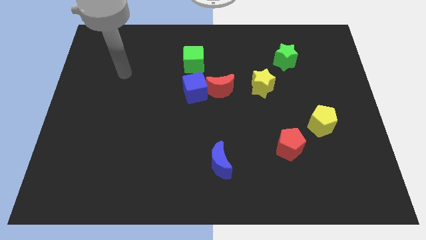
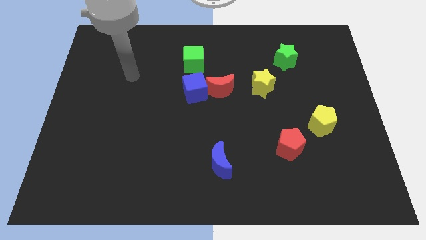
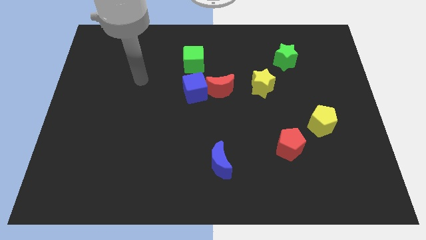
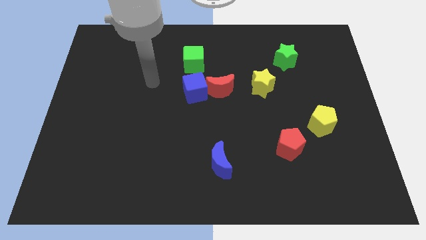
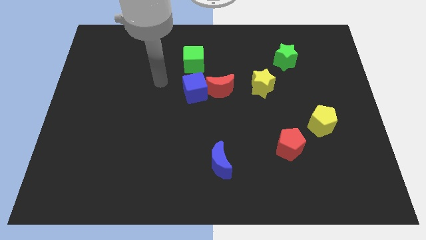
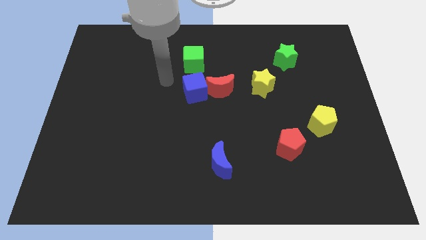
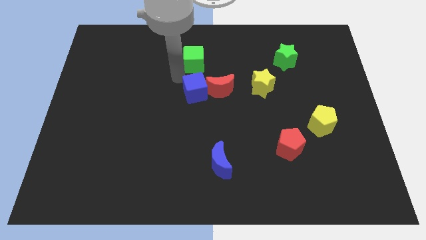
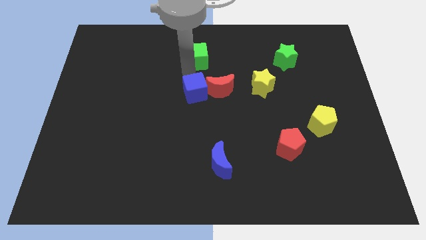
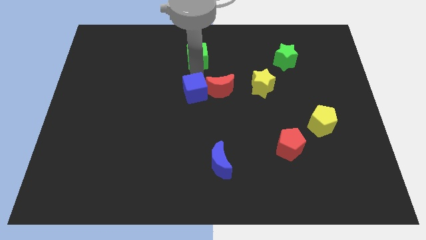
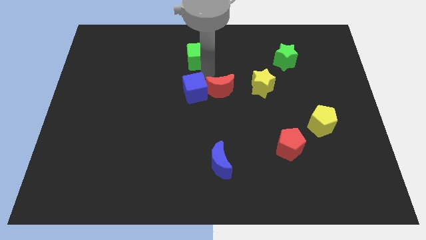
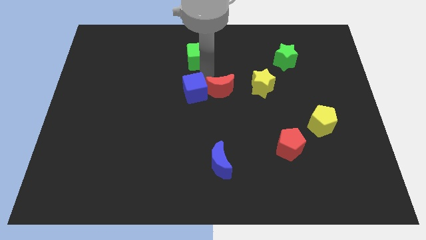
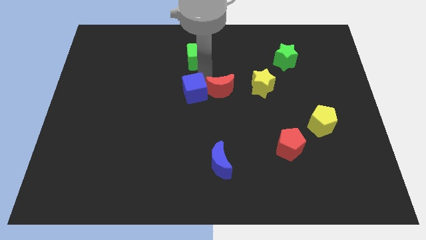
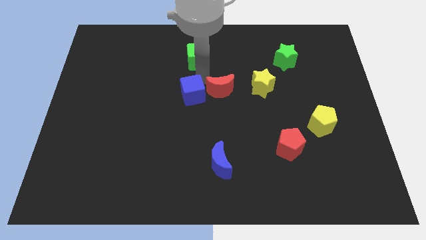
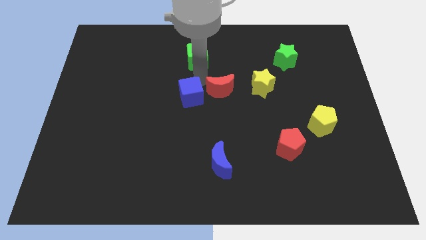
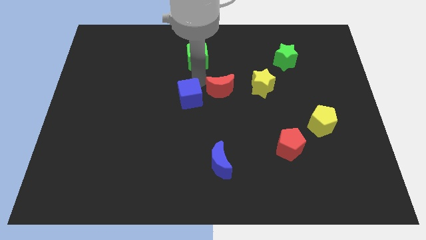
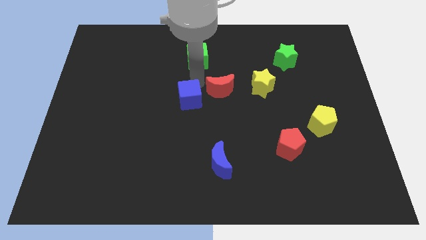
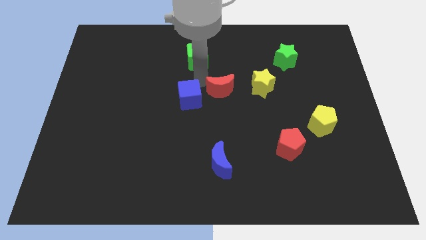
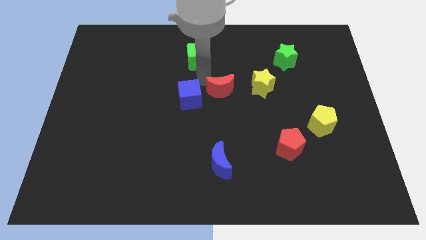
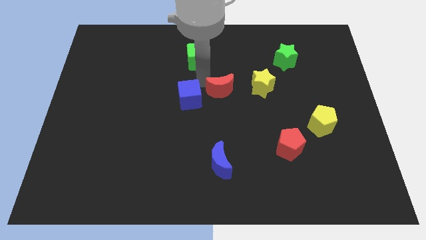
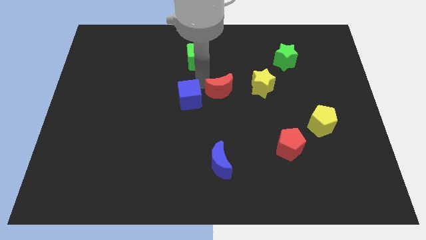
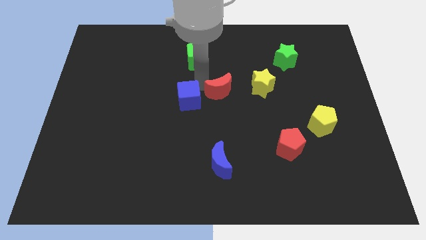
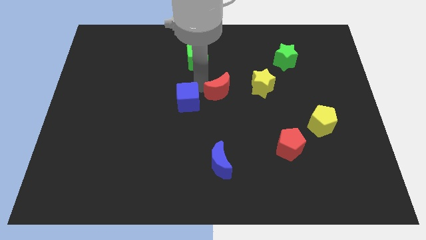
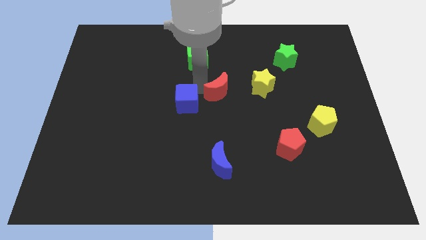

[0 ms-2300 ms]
move the blue cube away from the red moon and green cube

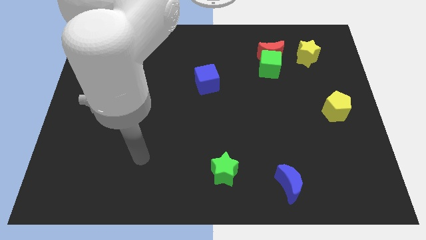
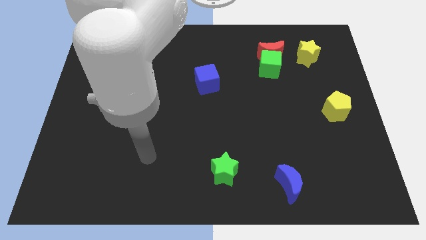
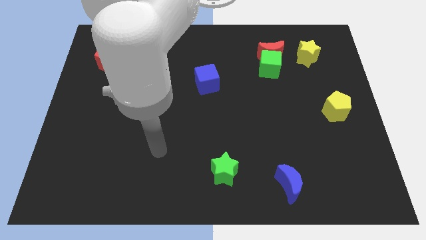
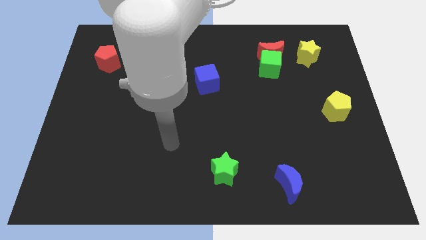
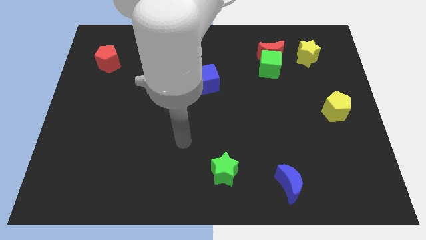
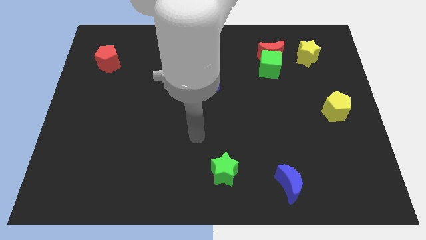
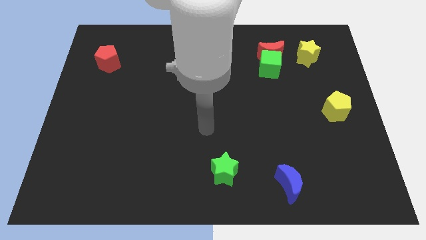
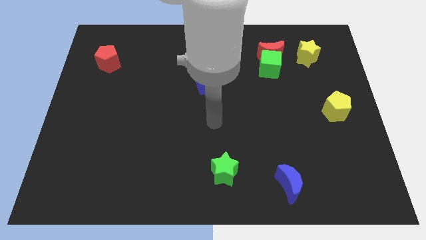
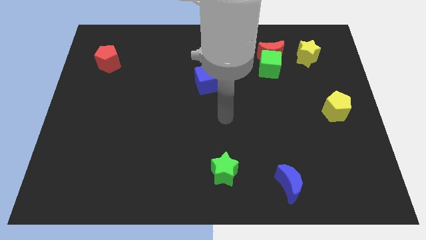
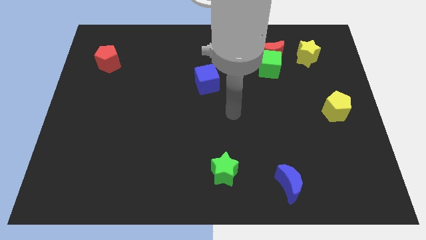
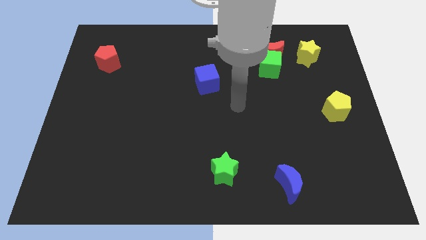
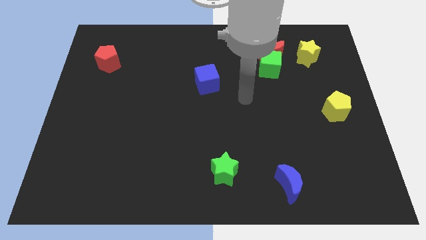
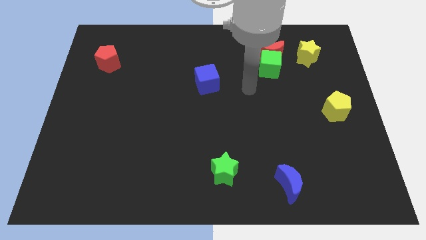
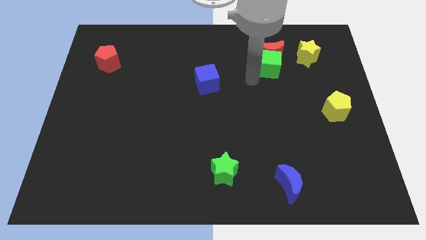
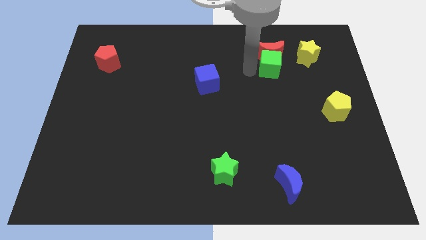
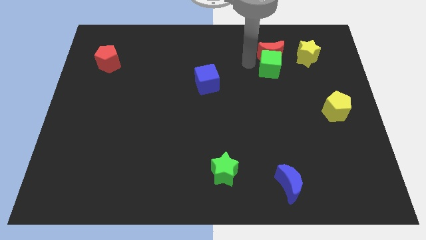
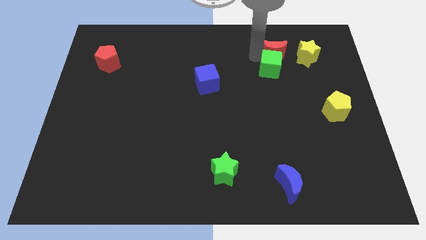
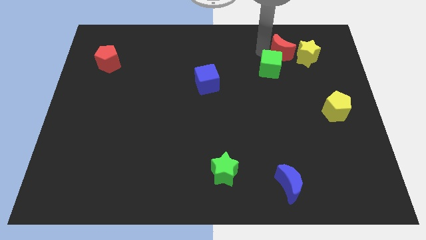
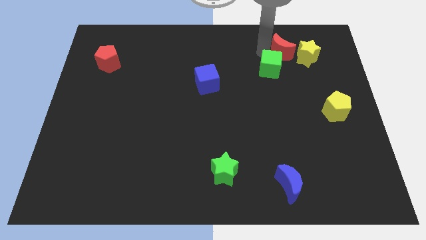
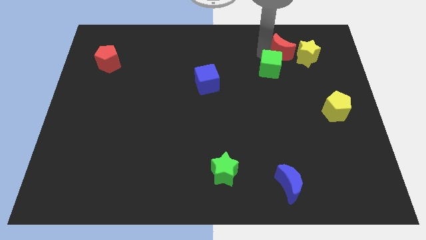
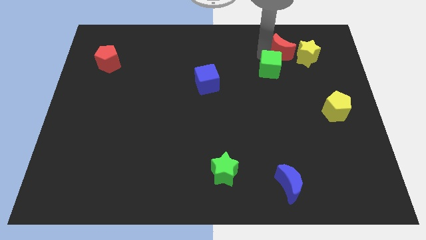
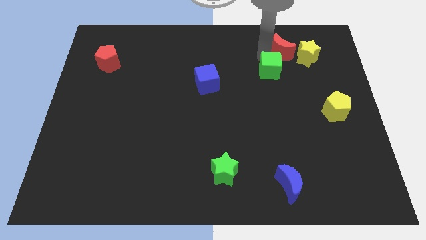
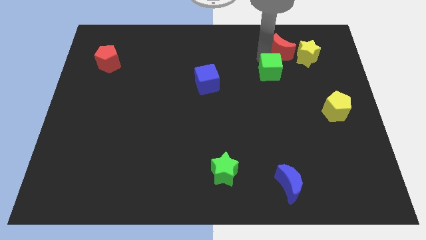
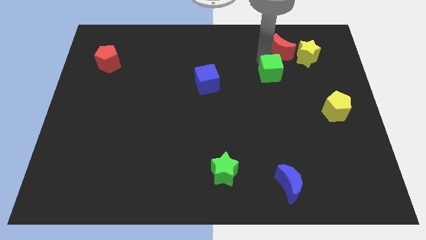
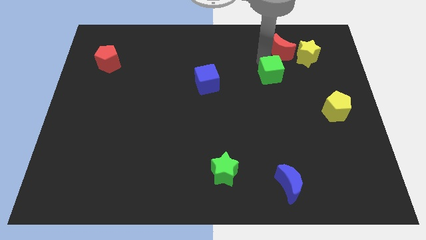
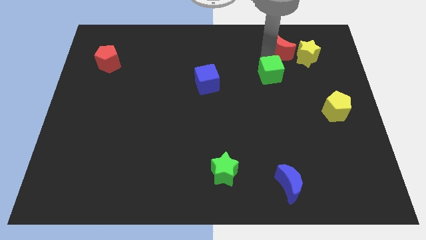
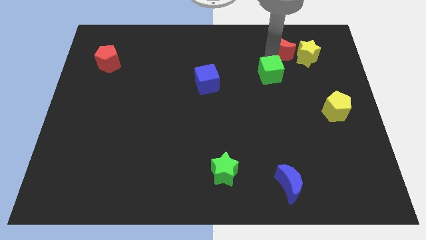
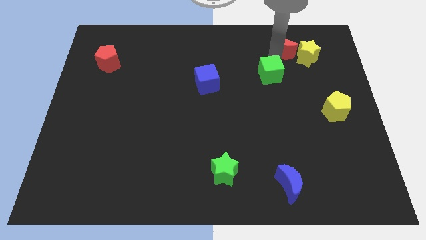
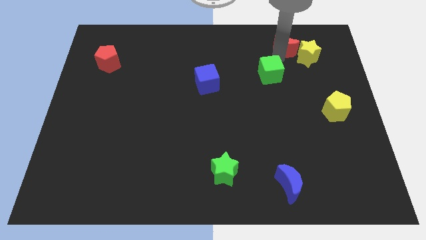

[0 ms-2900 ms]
move the green cube away from the red moon

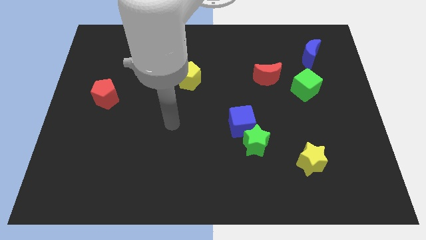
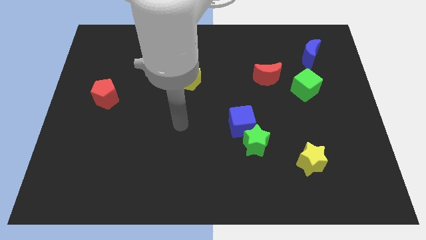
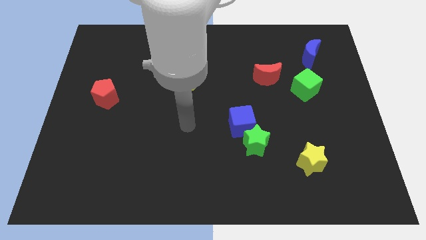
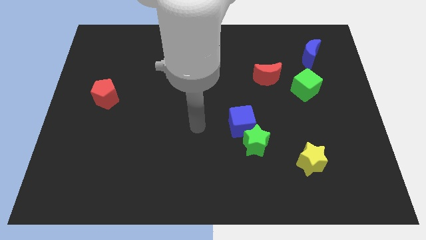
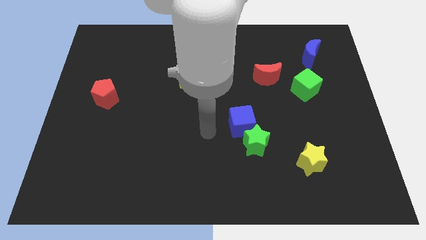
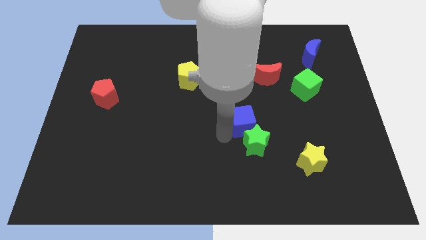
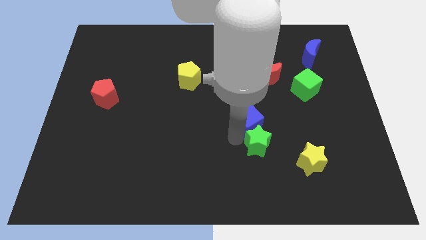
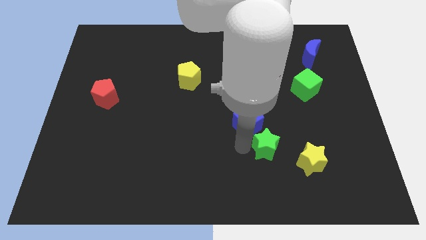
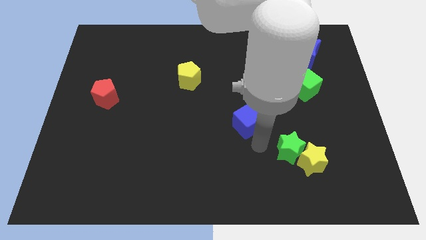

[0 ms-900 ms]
separate the blue cube from the green star

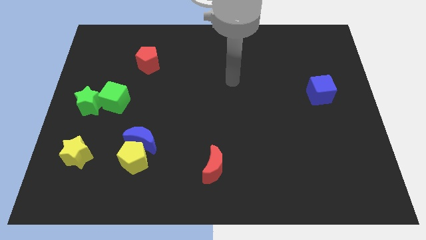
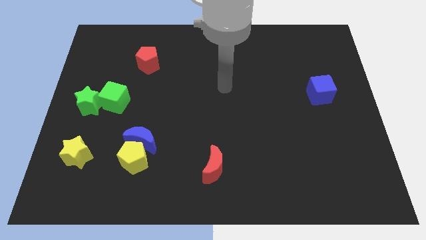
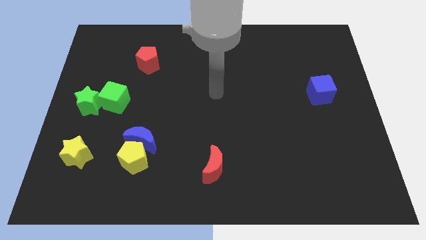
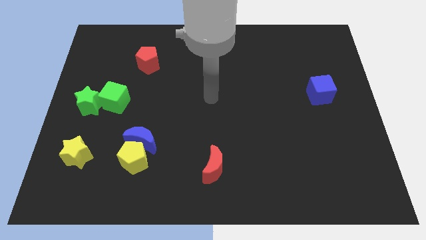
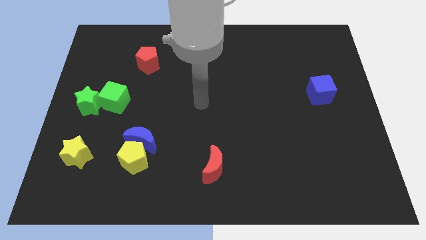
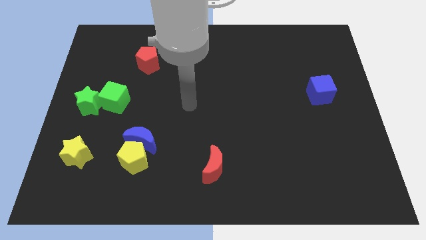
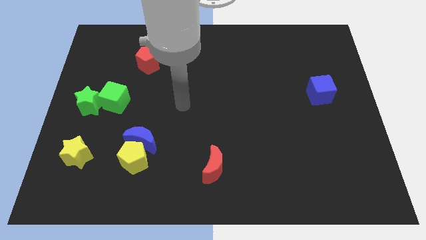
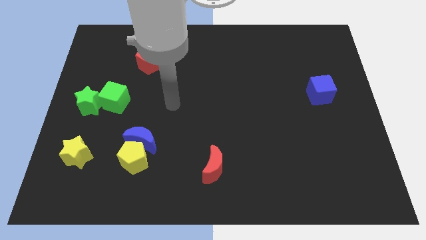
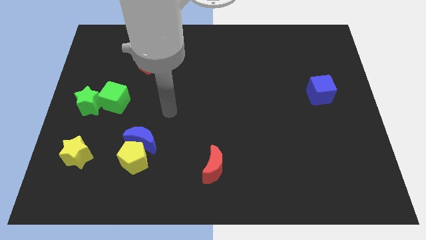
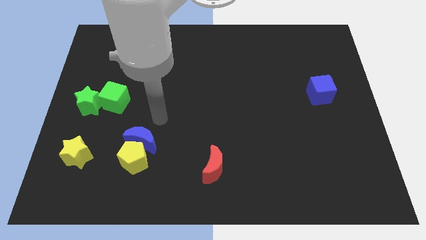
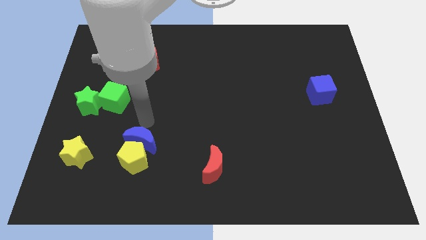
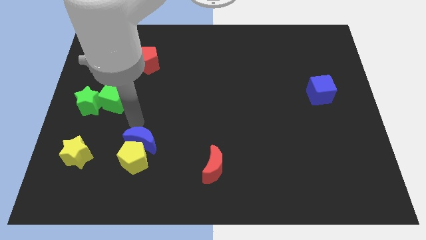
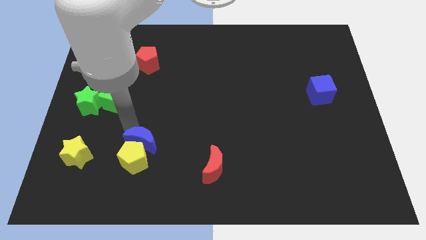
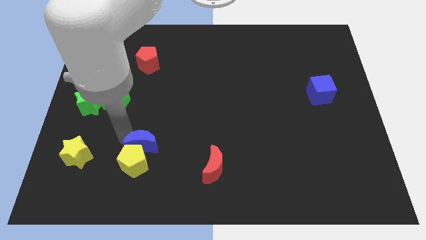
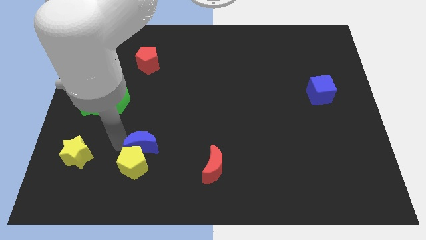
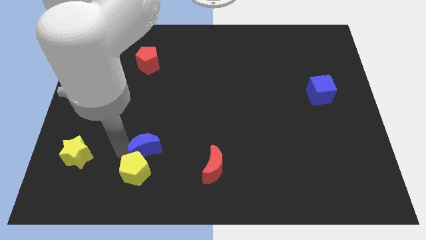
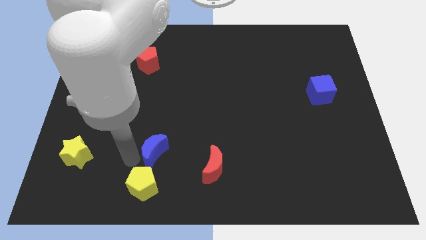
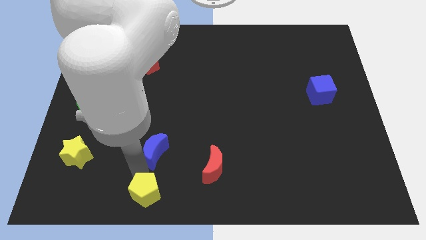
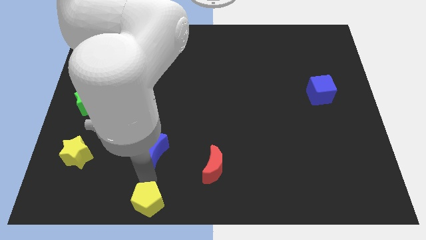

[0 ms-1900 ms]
pull the blue moon apart from the yellow pentagon

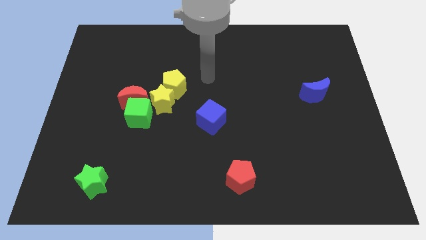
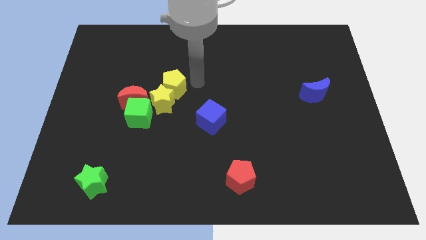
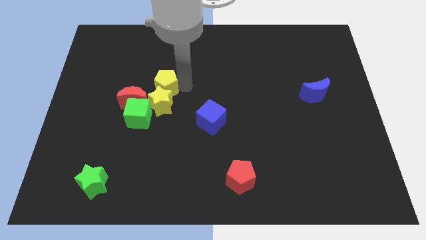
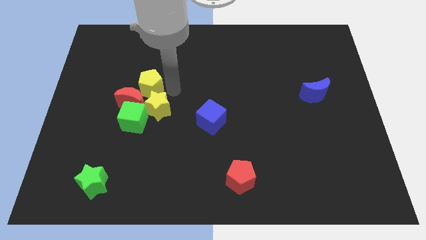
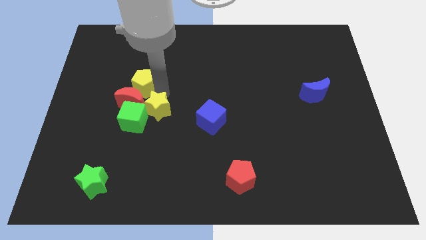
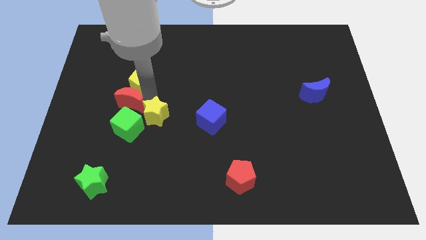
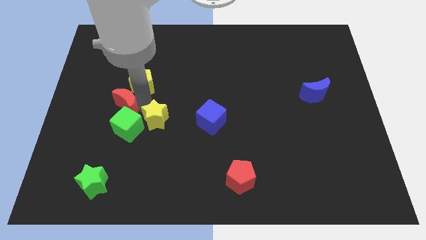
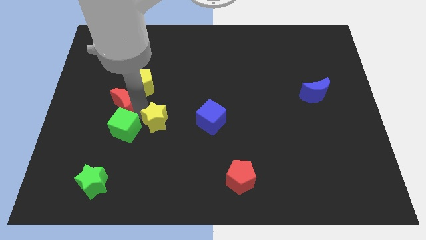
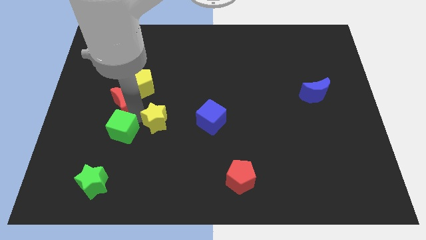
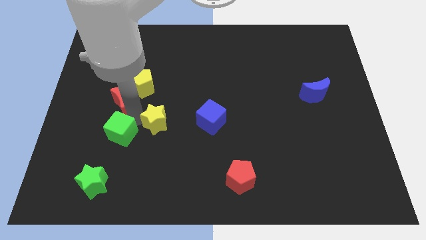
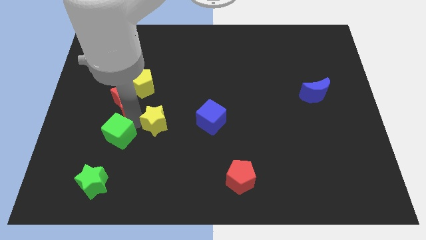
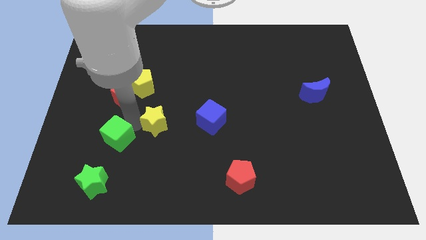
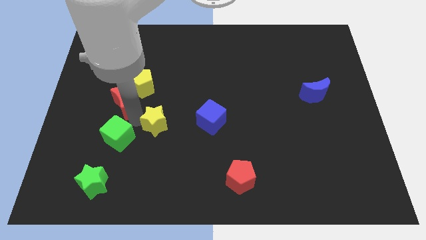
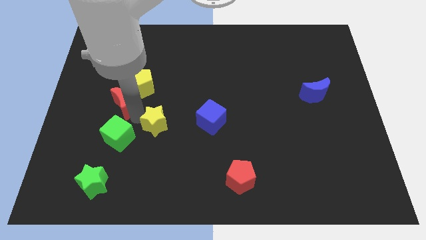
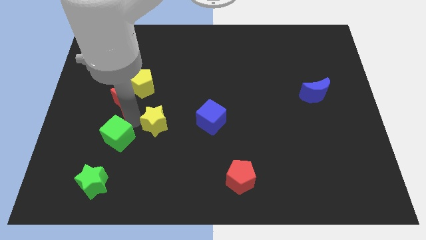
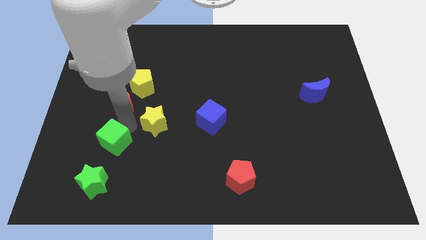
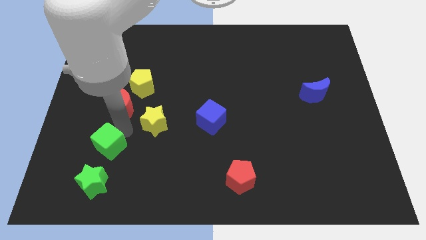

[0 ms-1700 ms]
pull the green cube apart from the red moon and yellow star
